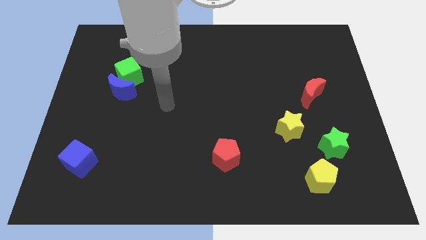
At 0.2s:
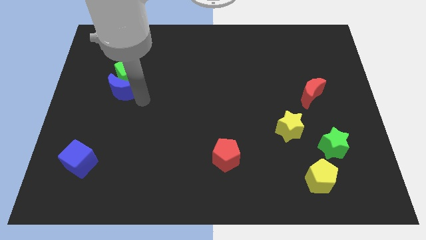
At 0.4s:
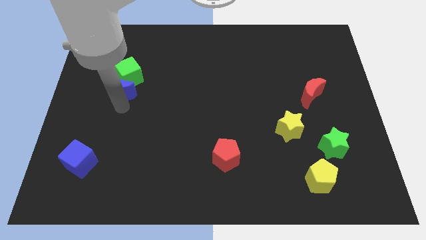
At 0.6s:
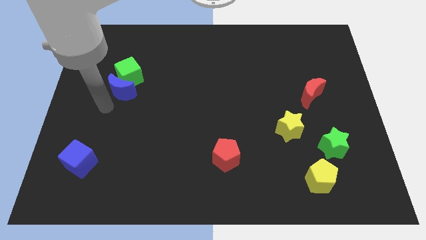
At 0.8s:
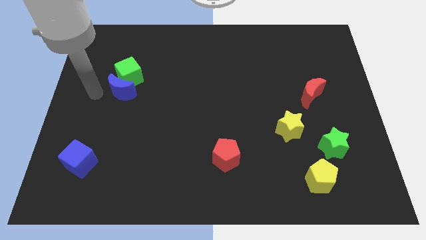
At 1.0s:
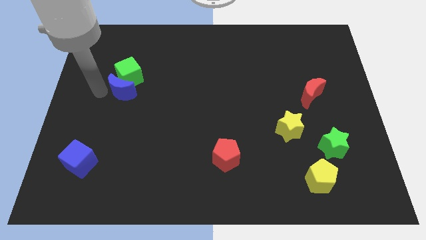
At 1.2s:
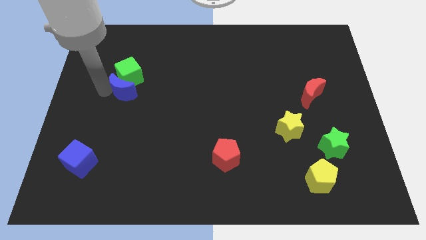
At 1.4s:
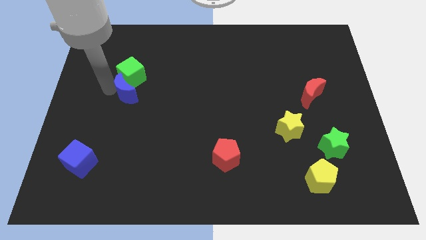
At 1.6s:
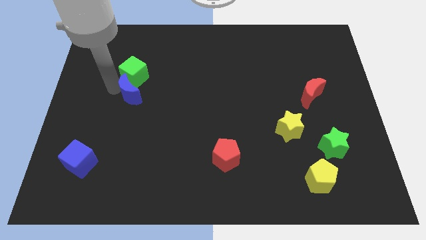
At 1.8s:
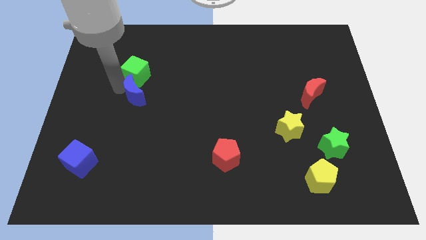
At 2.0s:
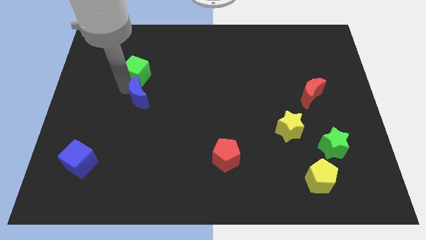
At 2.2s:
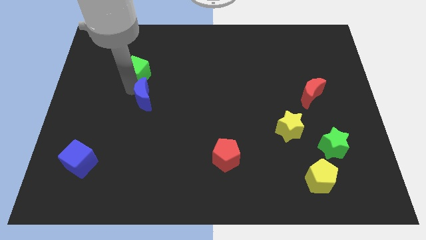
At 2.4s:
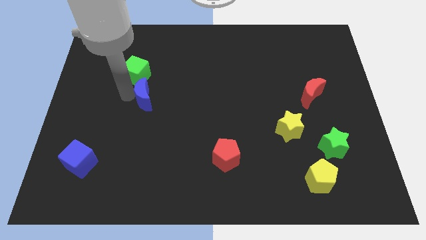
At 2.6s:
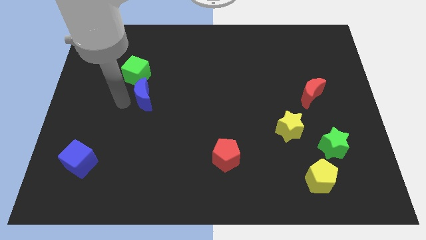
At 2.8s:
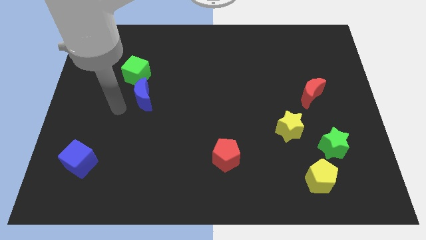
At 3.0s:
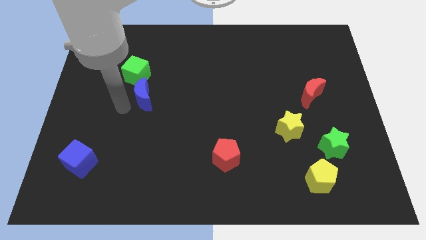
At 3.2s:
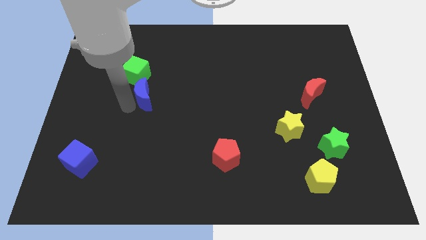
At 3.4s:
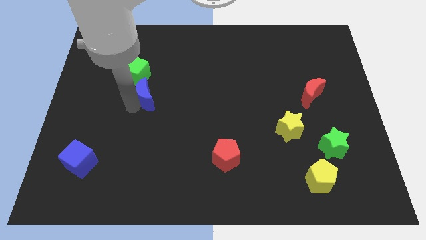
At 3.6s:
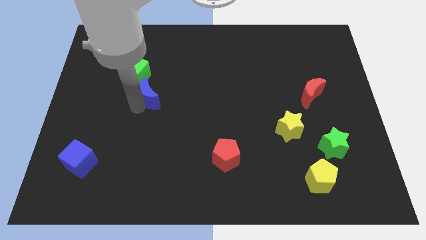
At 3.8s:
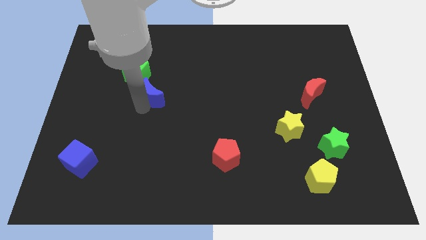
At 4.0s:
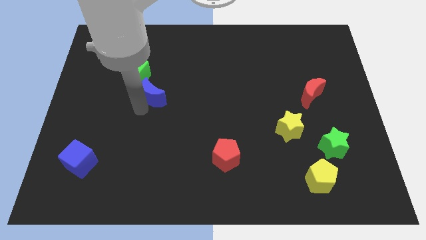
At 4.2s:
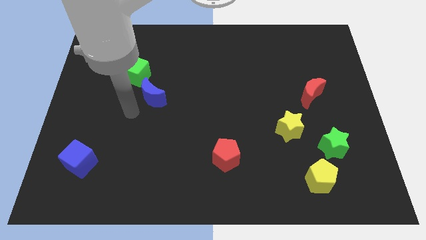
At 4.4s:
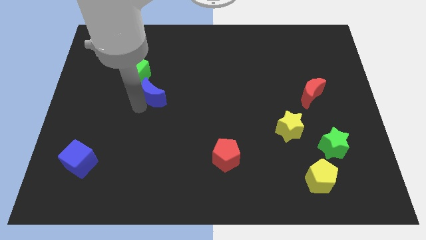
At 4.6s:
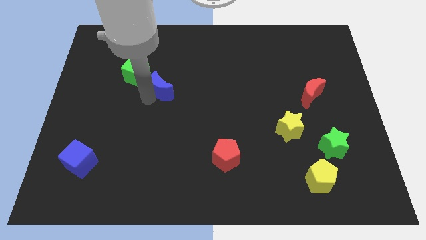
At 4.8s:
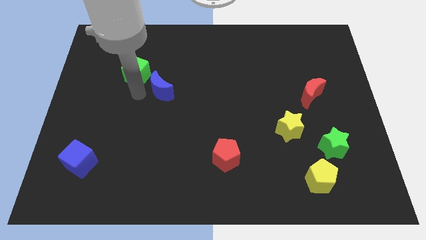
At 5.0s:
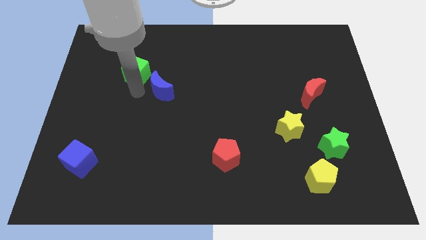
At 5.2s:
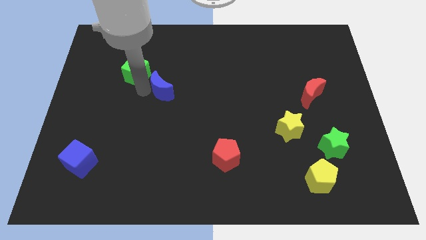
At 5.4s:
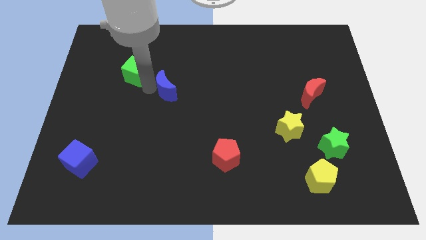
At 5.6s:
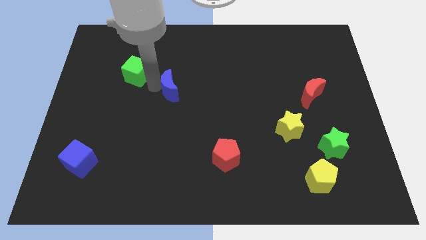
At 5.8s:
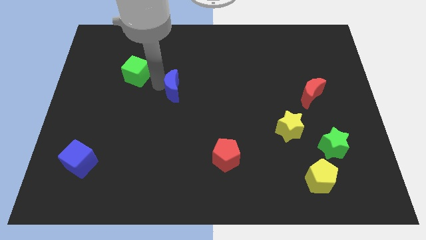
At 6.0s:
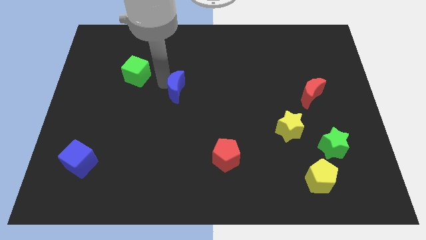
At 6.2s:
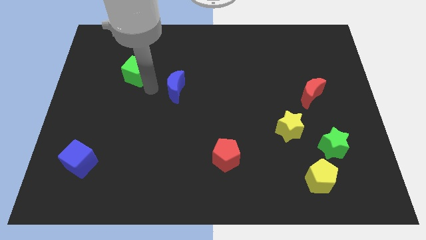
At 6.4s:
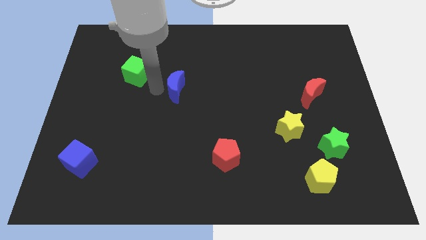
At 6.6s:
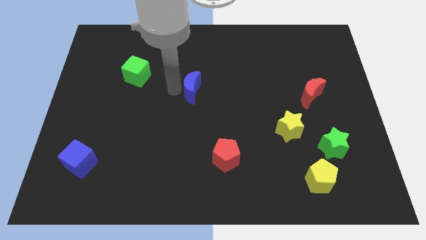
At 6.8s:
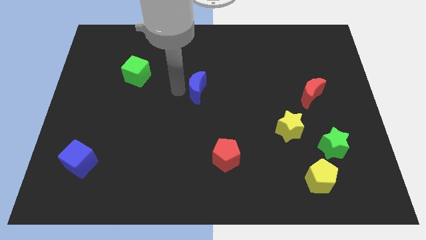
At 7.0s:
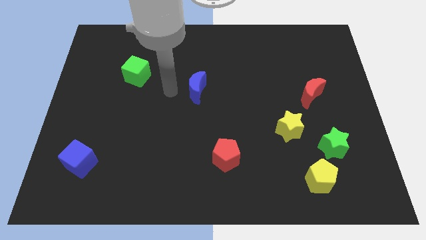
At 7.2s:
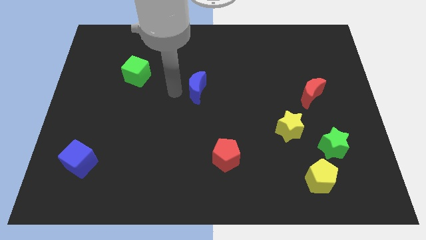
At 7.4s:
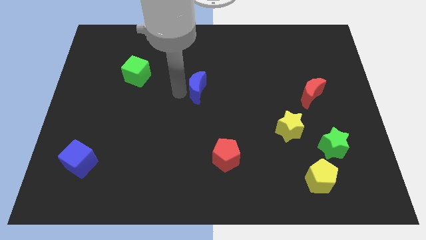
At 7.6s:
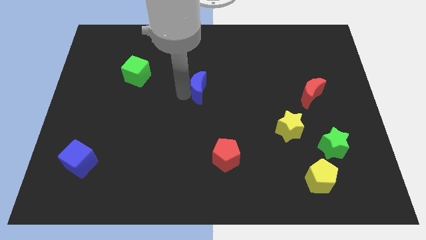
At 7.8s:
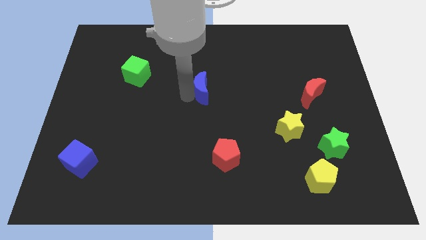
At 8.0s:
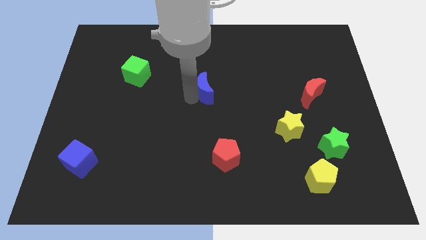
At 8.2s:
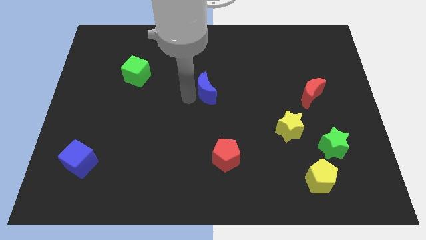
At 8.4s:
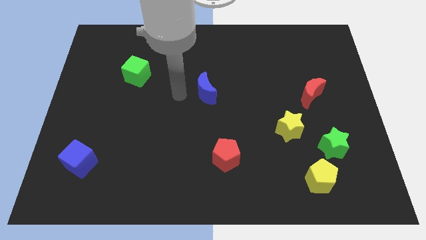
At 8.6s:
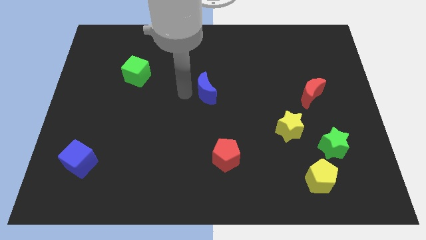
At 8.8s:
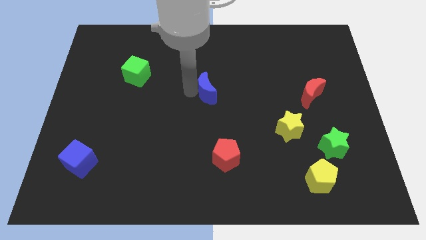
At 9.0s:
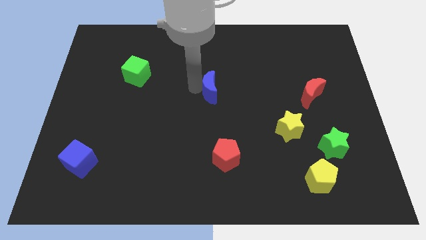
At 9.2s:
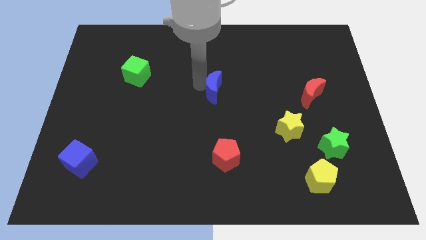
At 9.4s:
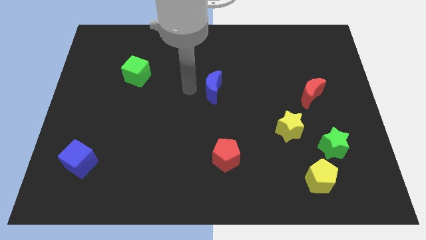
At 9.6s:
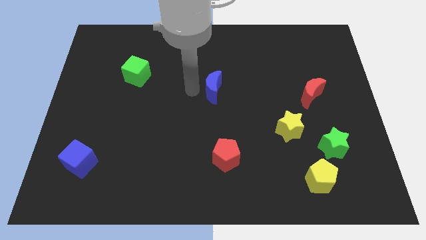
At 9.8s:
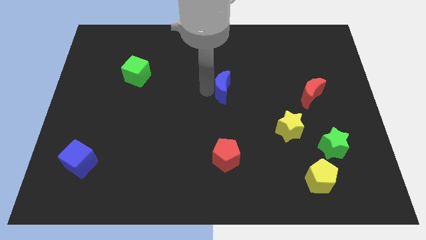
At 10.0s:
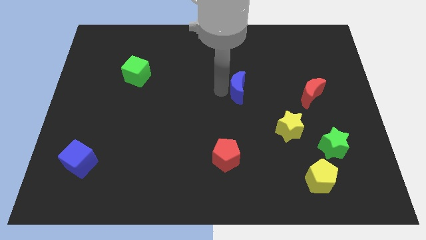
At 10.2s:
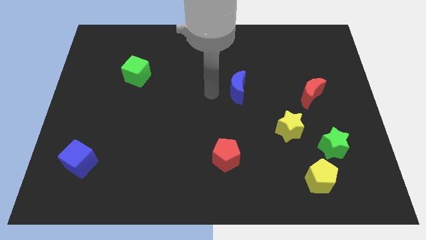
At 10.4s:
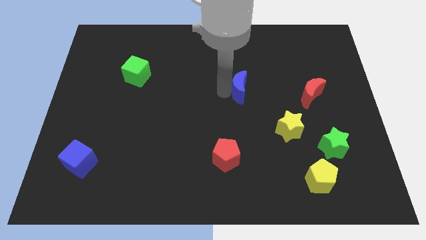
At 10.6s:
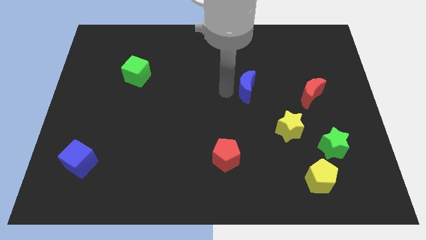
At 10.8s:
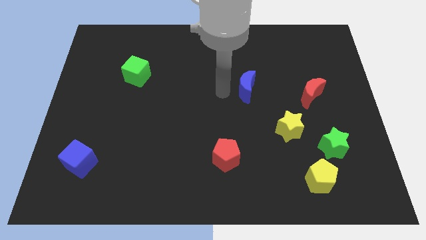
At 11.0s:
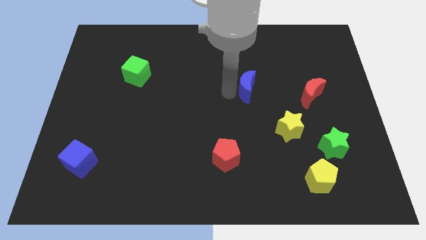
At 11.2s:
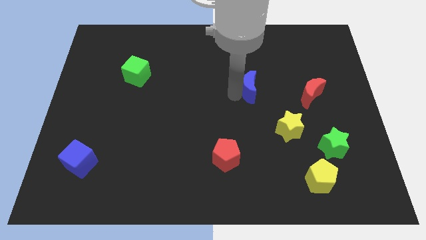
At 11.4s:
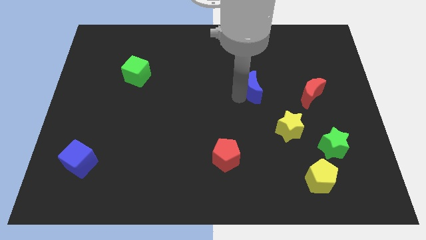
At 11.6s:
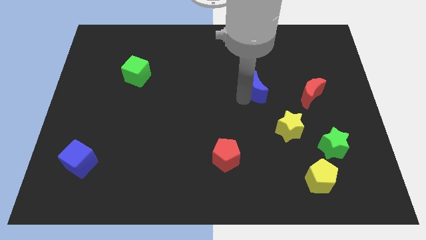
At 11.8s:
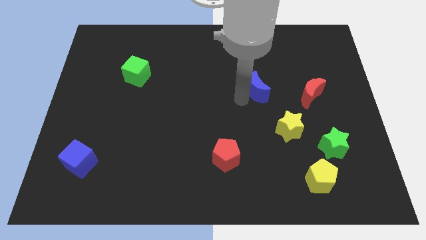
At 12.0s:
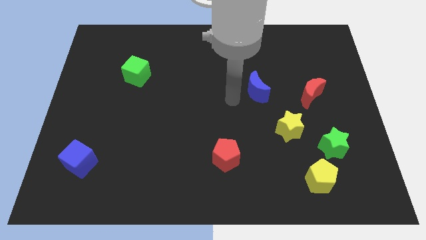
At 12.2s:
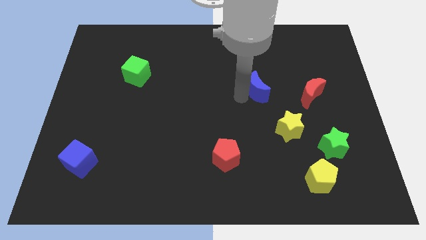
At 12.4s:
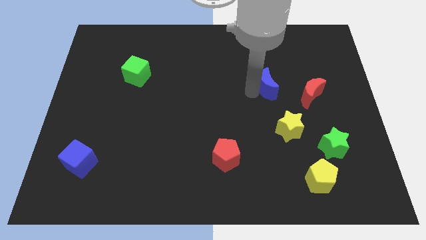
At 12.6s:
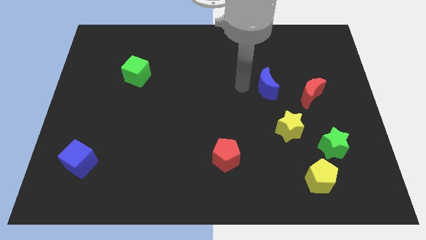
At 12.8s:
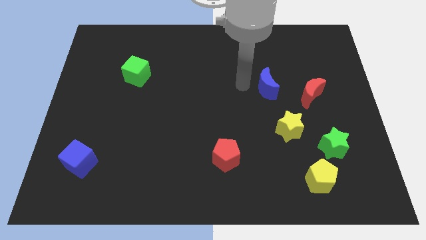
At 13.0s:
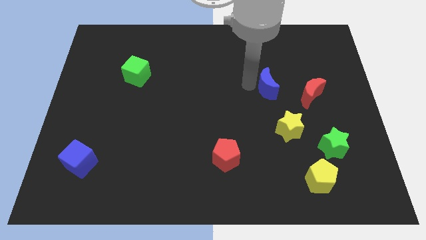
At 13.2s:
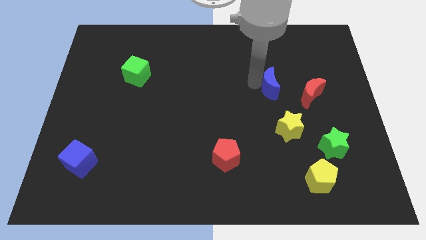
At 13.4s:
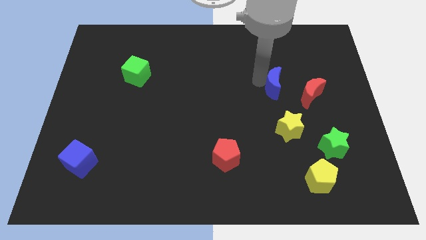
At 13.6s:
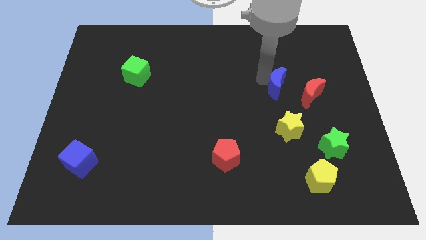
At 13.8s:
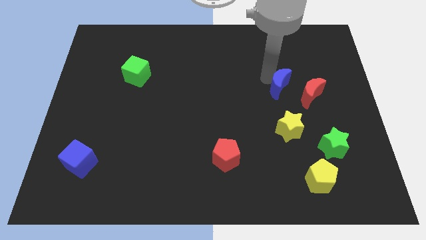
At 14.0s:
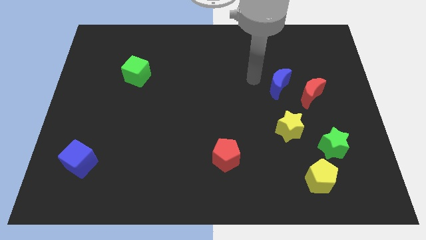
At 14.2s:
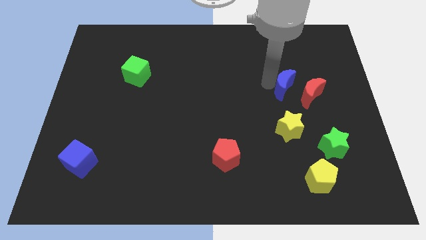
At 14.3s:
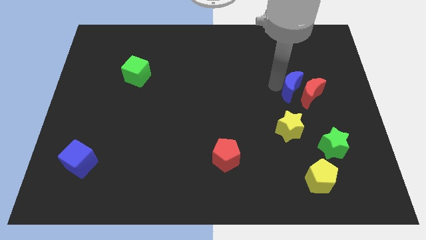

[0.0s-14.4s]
slide the blue moon towards the red moon
